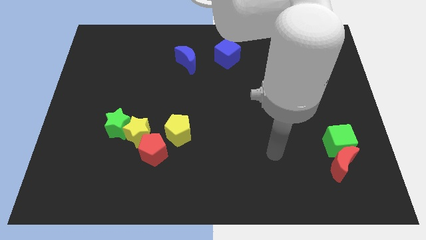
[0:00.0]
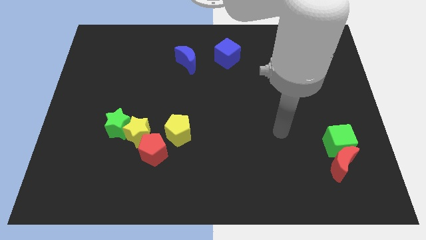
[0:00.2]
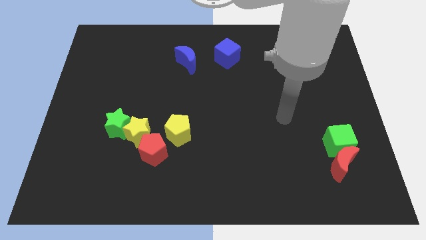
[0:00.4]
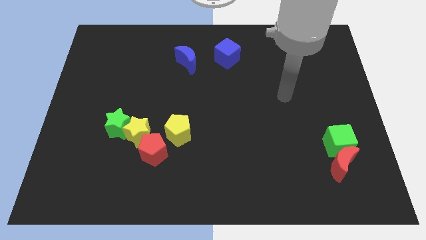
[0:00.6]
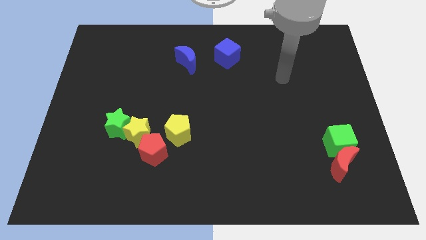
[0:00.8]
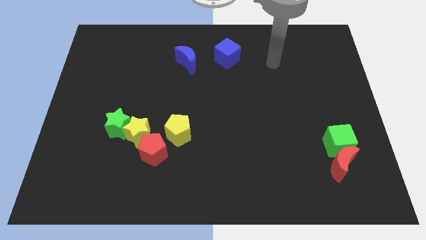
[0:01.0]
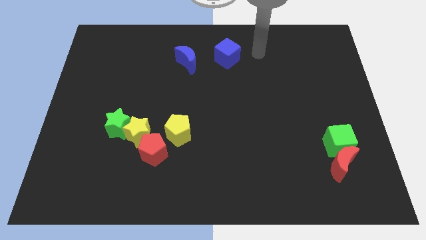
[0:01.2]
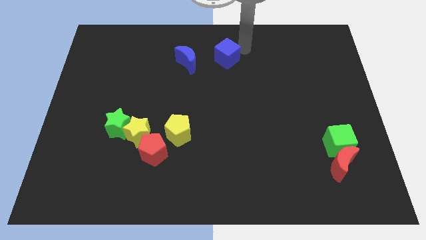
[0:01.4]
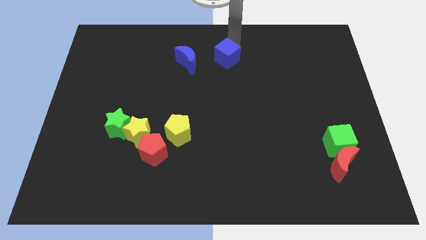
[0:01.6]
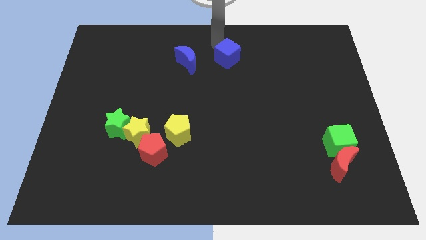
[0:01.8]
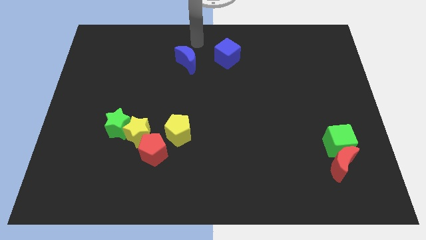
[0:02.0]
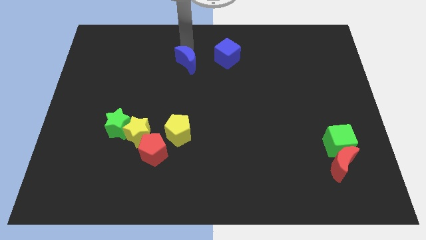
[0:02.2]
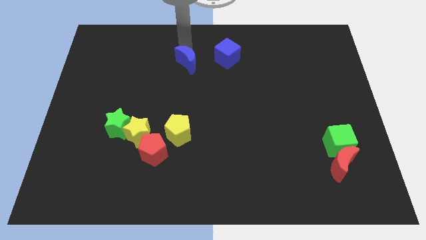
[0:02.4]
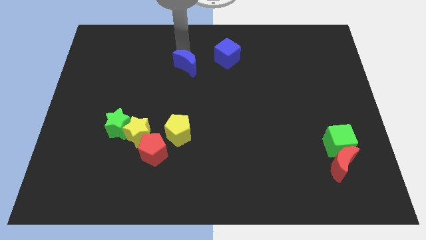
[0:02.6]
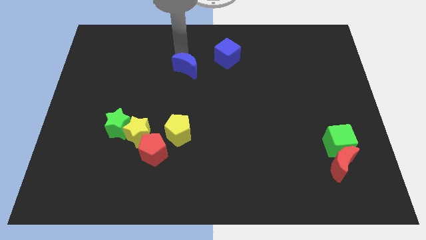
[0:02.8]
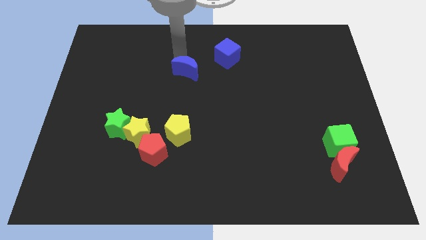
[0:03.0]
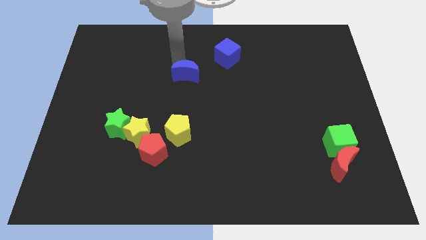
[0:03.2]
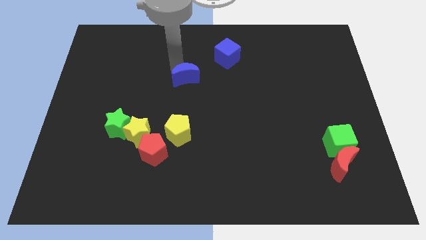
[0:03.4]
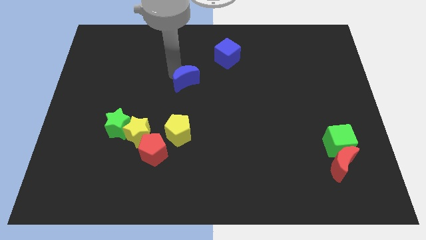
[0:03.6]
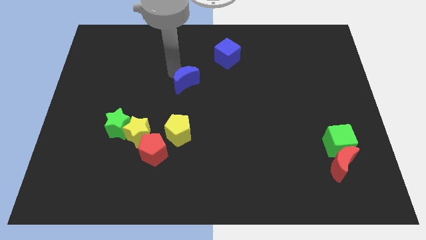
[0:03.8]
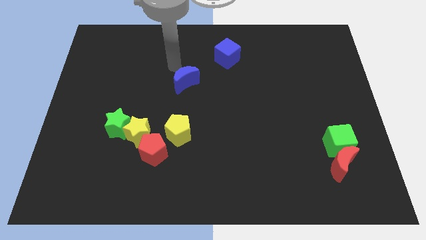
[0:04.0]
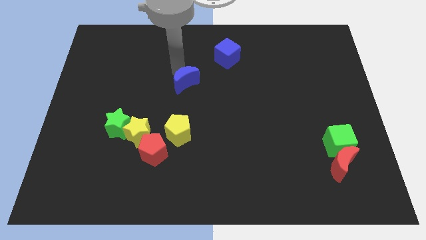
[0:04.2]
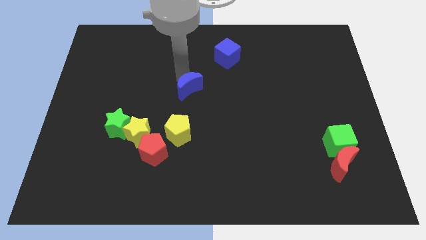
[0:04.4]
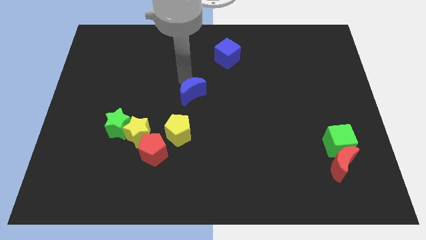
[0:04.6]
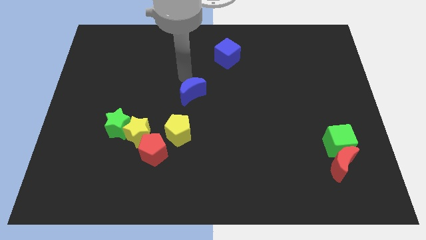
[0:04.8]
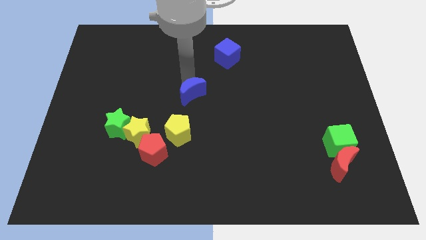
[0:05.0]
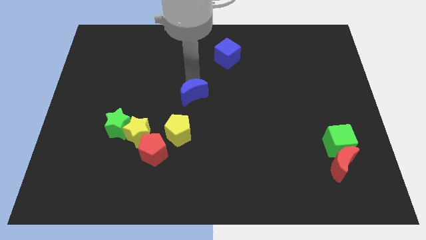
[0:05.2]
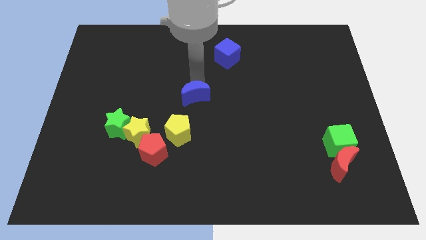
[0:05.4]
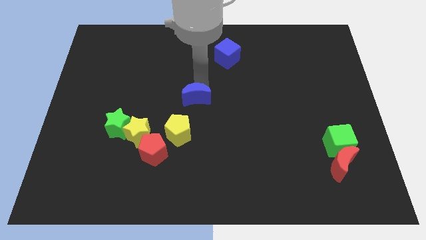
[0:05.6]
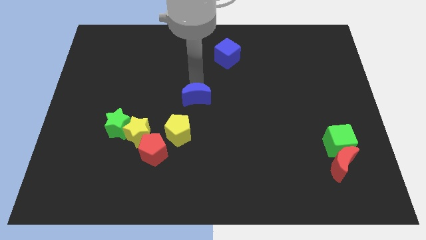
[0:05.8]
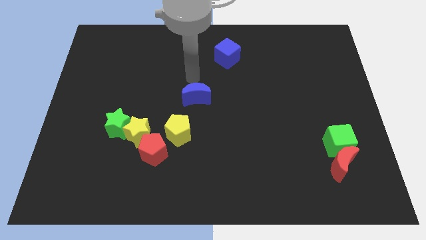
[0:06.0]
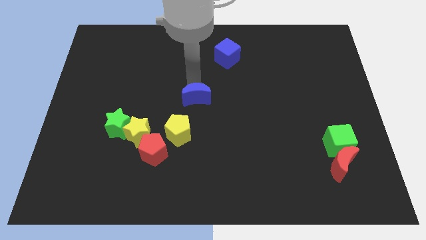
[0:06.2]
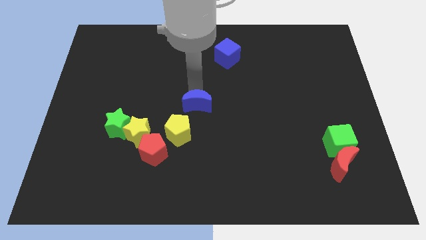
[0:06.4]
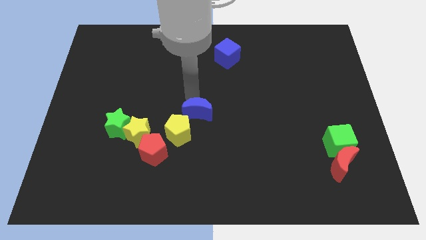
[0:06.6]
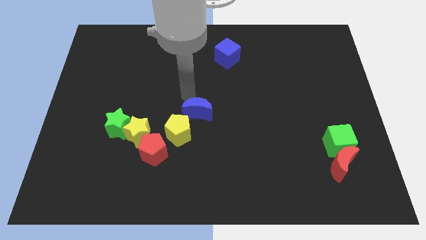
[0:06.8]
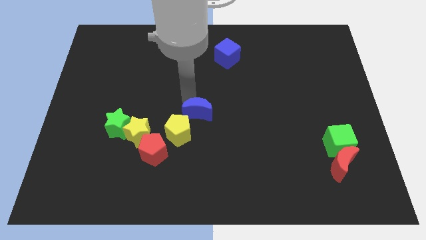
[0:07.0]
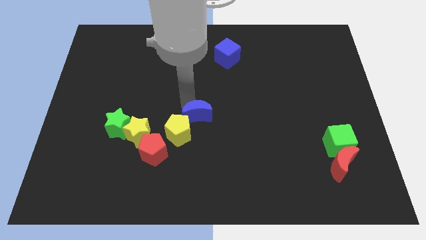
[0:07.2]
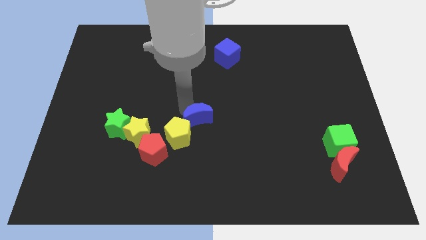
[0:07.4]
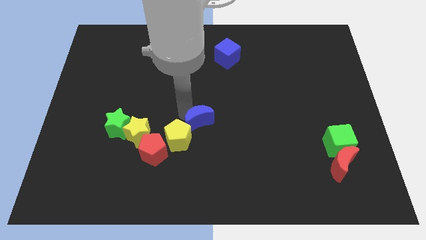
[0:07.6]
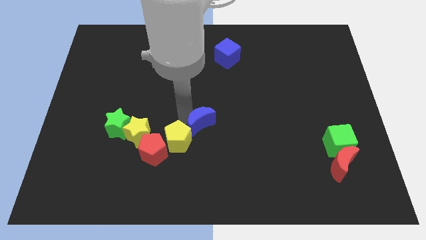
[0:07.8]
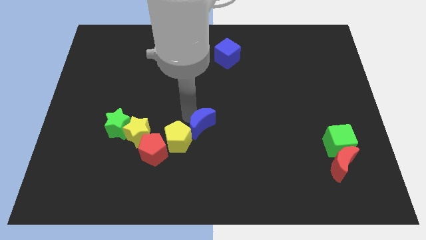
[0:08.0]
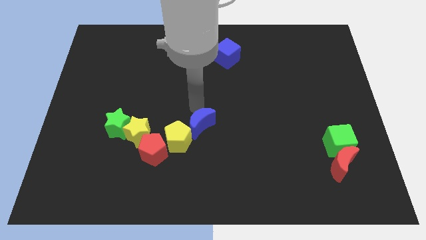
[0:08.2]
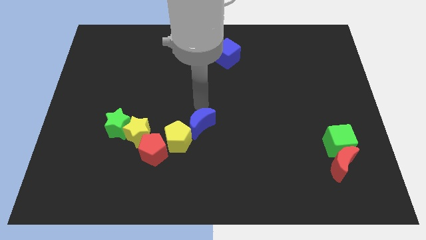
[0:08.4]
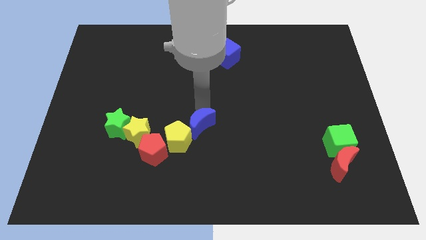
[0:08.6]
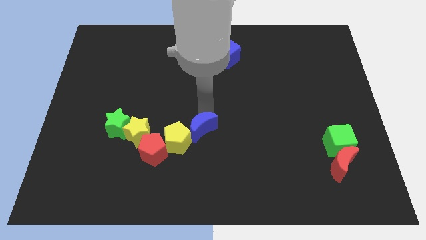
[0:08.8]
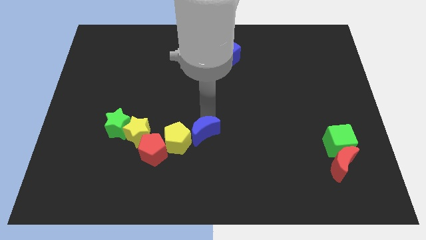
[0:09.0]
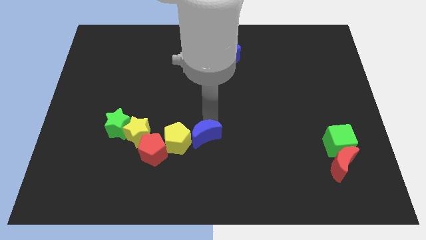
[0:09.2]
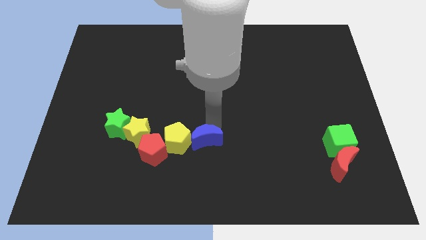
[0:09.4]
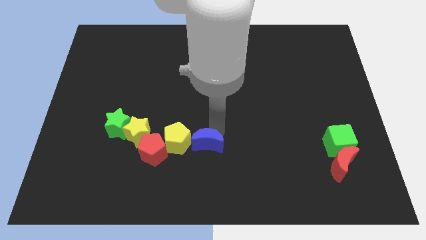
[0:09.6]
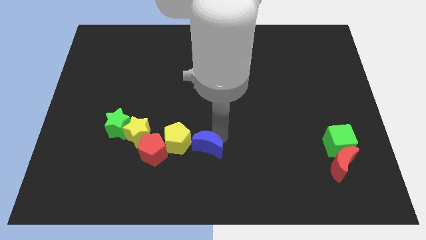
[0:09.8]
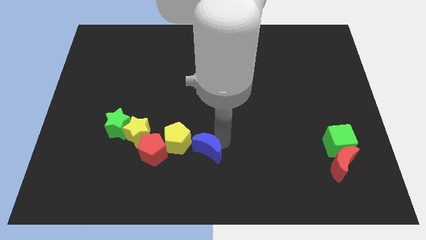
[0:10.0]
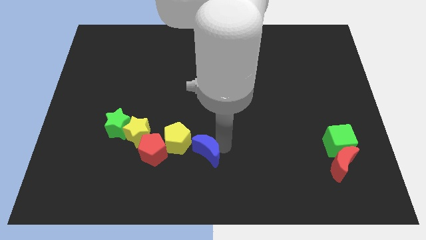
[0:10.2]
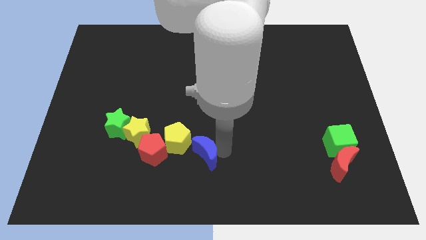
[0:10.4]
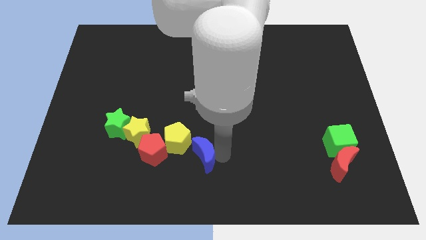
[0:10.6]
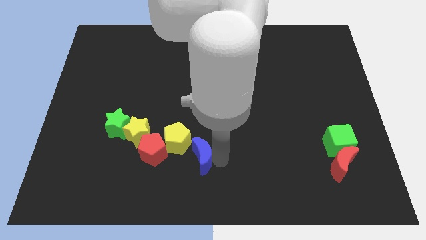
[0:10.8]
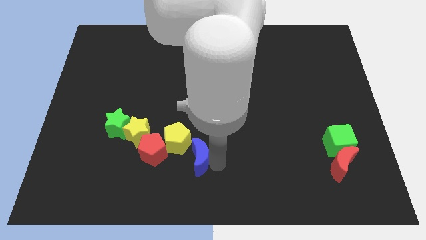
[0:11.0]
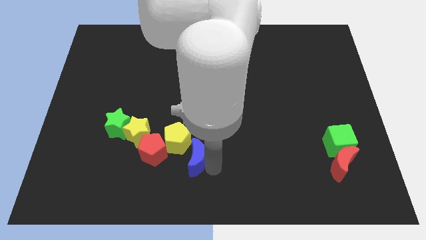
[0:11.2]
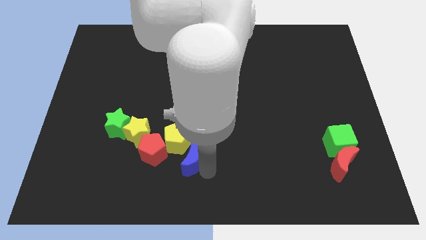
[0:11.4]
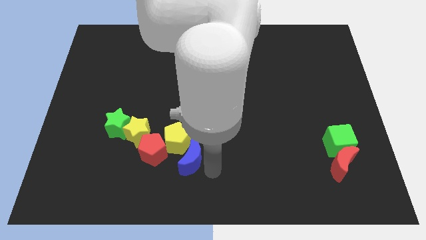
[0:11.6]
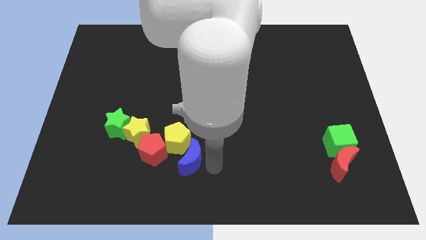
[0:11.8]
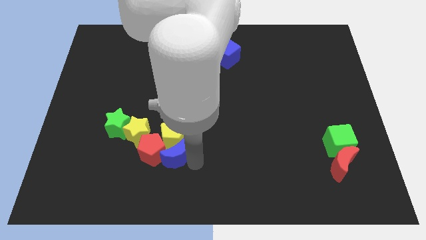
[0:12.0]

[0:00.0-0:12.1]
put the blue moon next to the red pentagon
